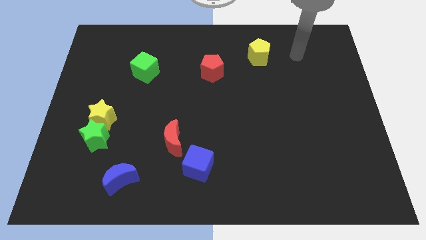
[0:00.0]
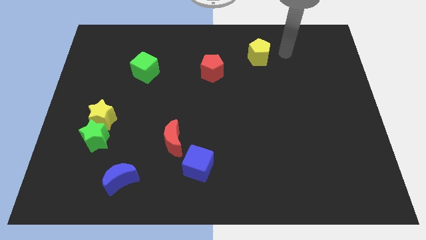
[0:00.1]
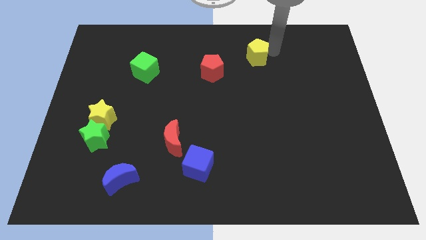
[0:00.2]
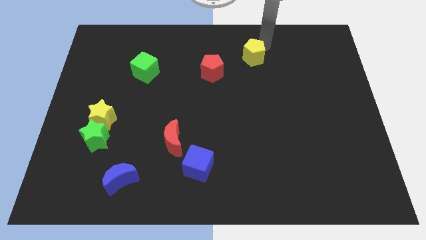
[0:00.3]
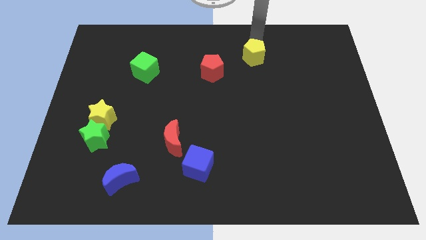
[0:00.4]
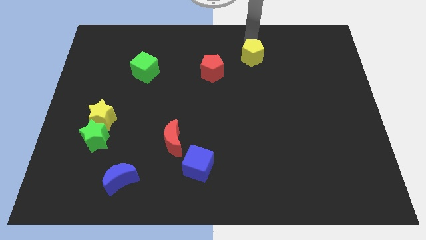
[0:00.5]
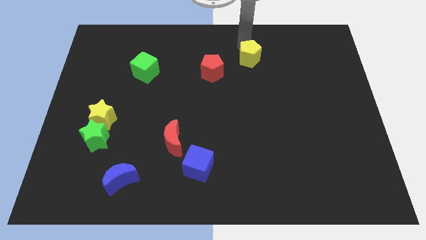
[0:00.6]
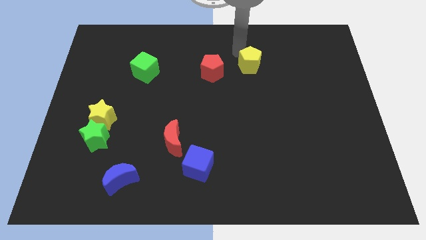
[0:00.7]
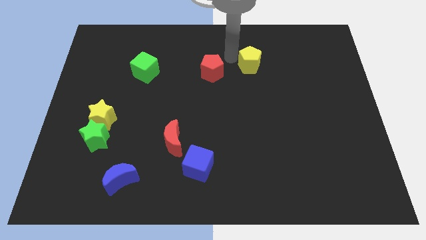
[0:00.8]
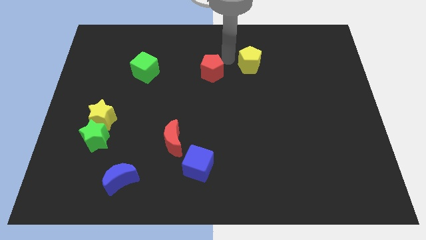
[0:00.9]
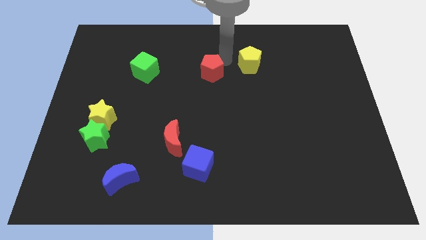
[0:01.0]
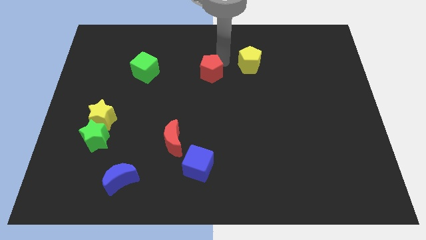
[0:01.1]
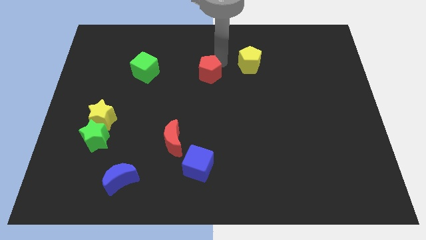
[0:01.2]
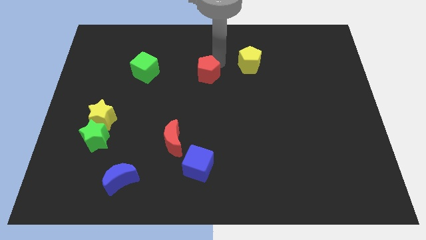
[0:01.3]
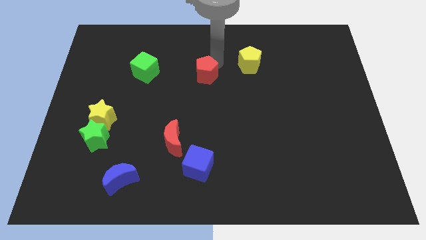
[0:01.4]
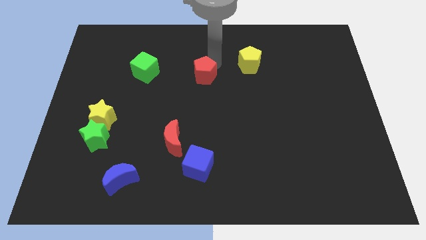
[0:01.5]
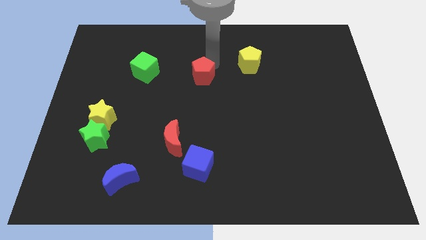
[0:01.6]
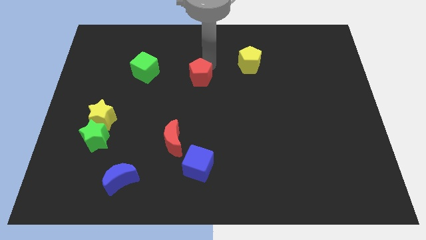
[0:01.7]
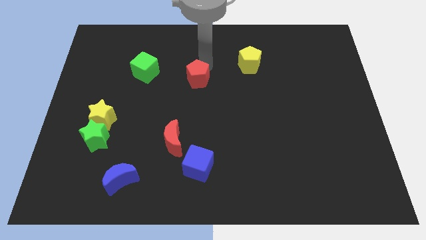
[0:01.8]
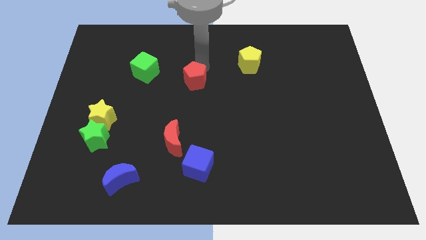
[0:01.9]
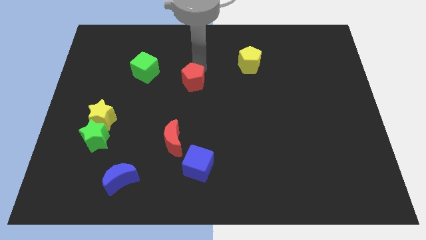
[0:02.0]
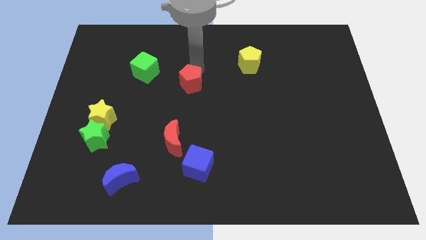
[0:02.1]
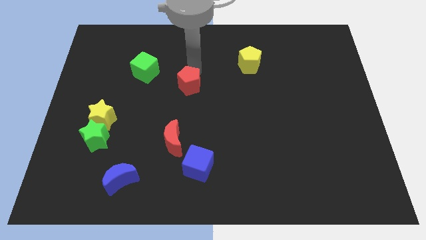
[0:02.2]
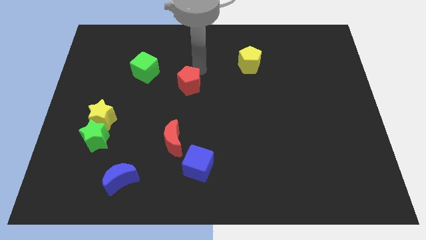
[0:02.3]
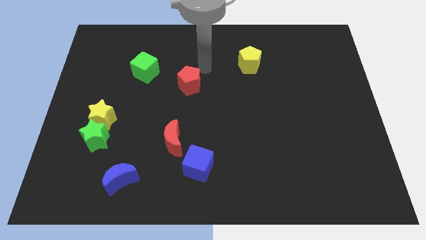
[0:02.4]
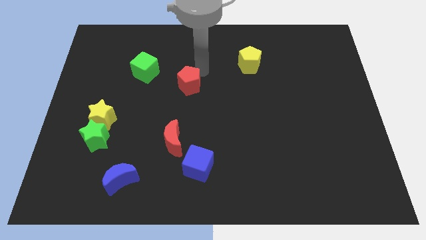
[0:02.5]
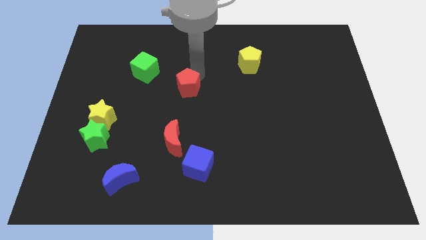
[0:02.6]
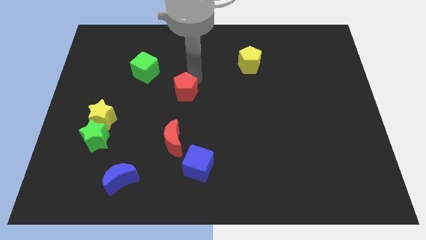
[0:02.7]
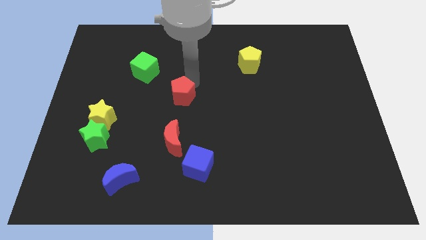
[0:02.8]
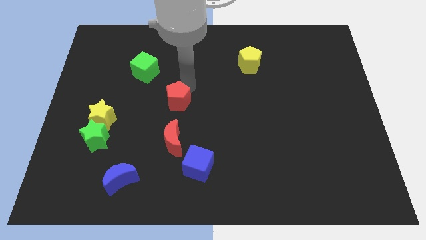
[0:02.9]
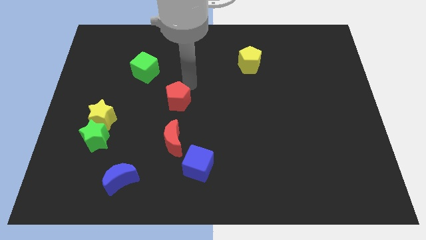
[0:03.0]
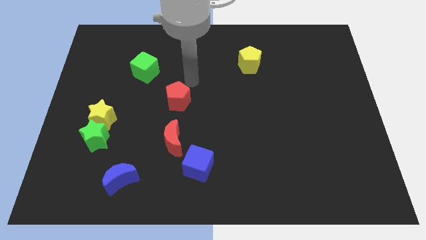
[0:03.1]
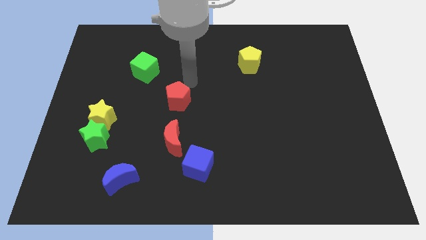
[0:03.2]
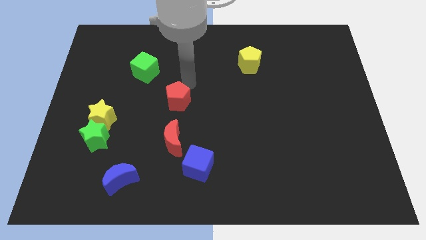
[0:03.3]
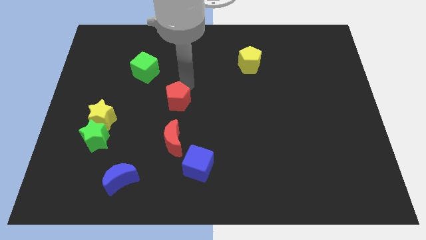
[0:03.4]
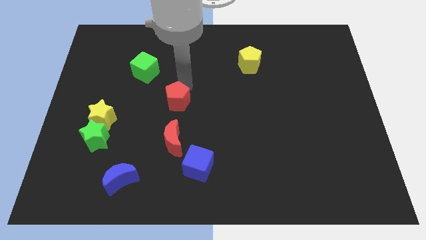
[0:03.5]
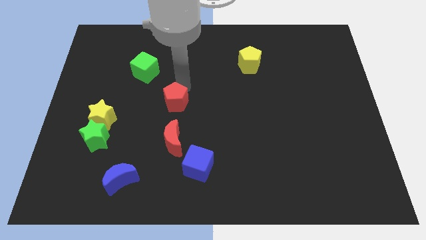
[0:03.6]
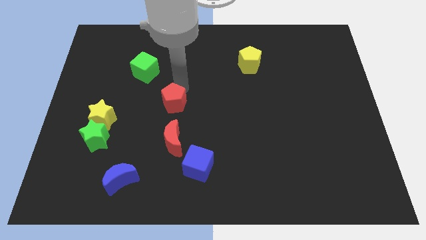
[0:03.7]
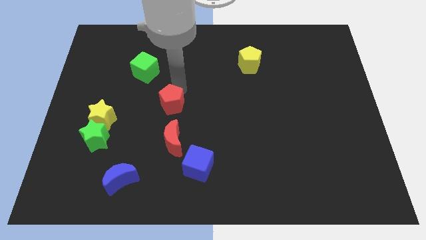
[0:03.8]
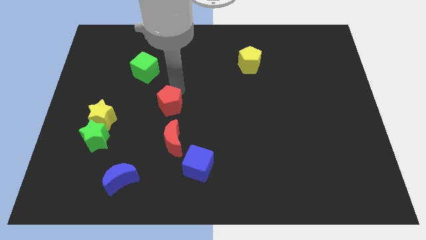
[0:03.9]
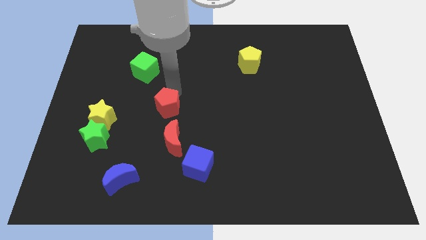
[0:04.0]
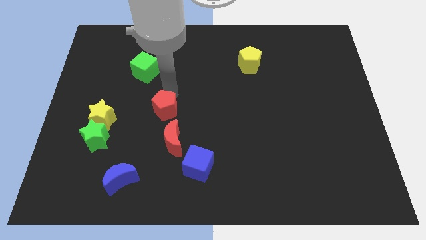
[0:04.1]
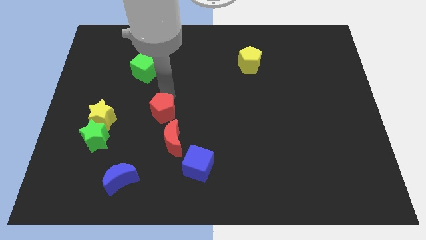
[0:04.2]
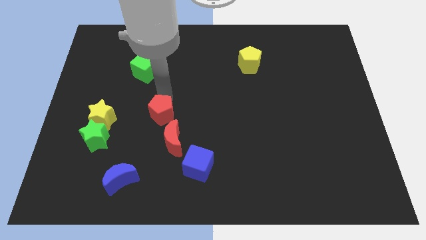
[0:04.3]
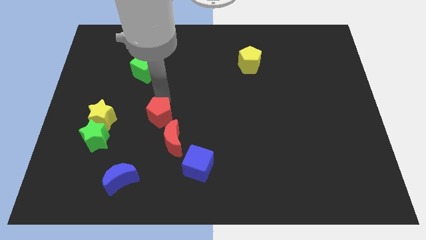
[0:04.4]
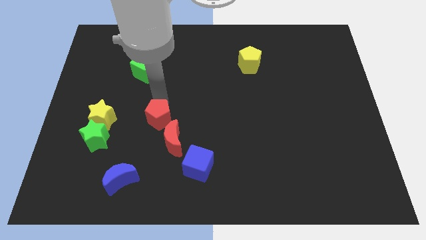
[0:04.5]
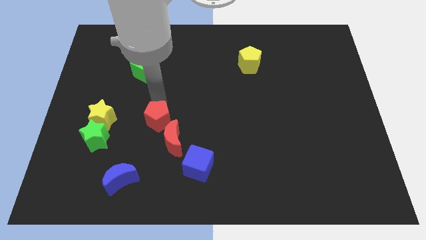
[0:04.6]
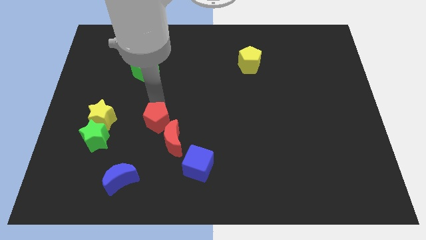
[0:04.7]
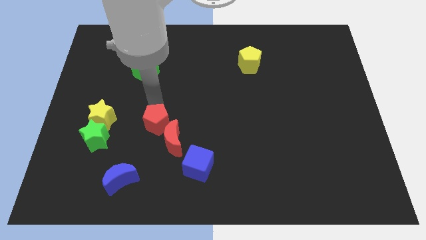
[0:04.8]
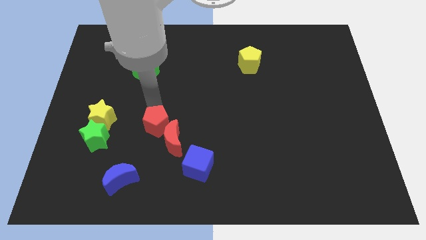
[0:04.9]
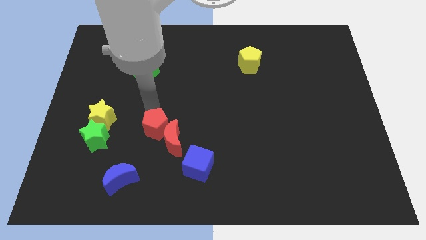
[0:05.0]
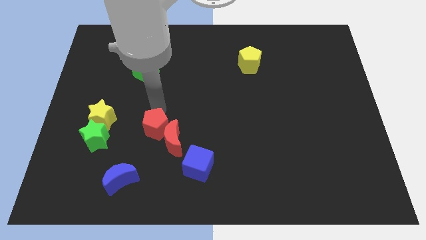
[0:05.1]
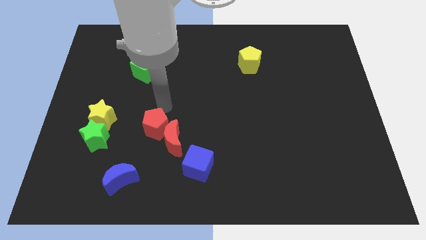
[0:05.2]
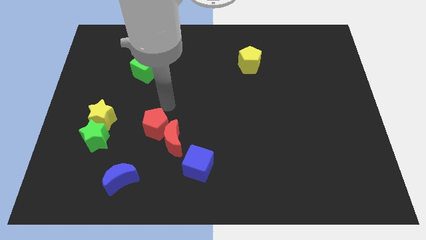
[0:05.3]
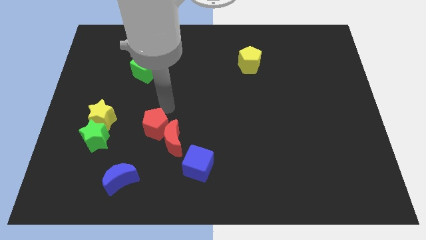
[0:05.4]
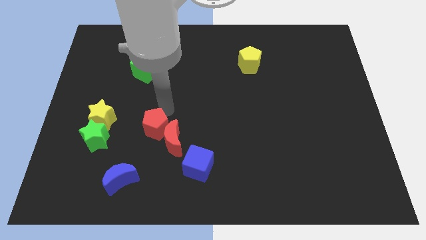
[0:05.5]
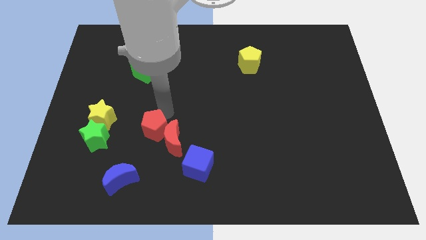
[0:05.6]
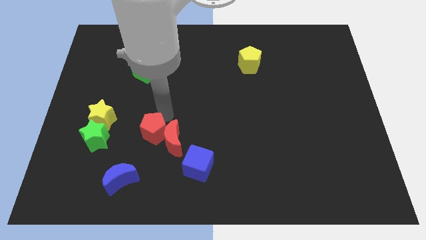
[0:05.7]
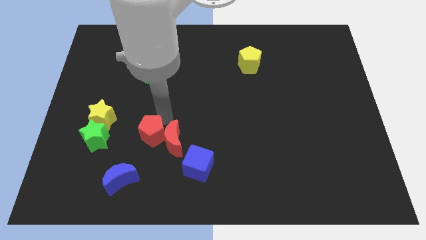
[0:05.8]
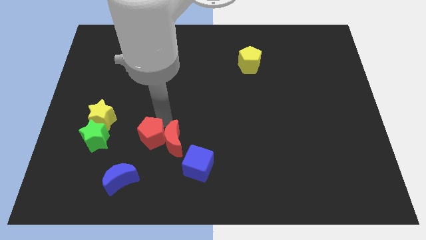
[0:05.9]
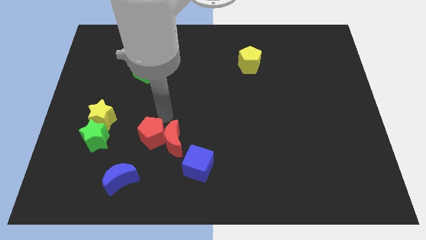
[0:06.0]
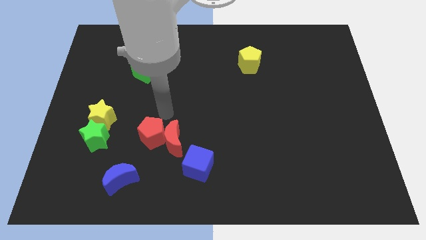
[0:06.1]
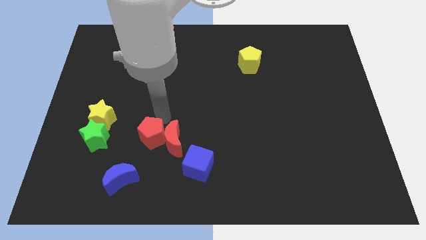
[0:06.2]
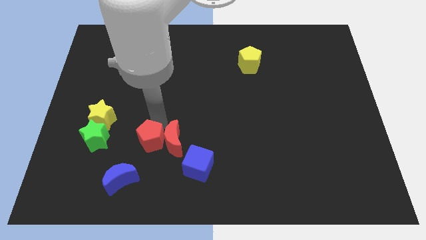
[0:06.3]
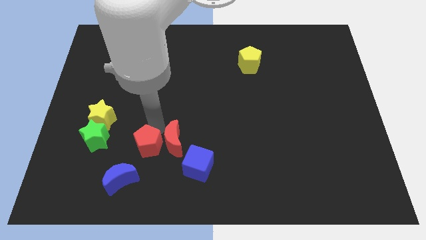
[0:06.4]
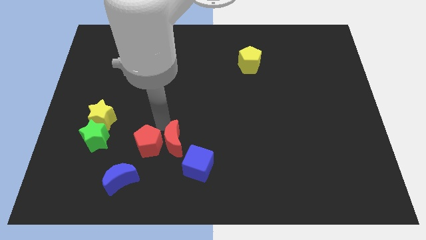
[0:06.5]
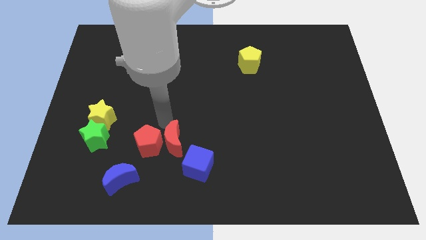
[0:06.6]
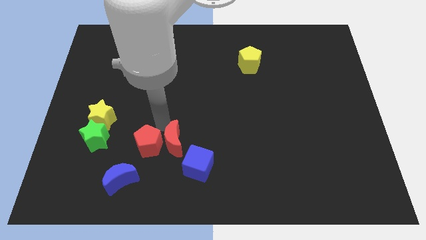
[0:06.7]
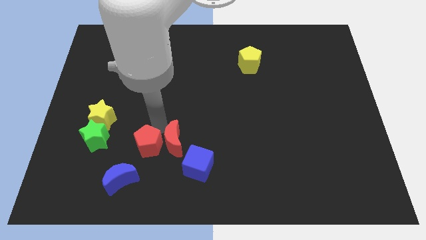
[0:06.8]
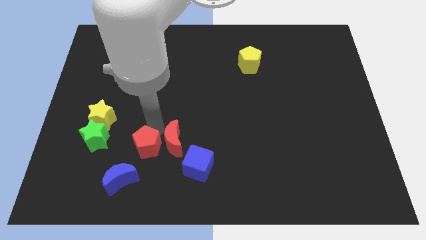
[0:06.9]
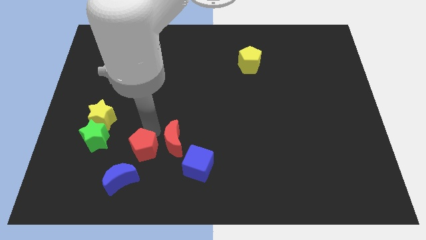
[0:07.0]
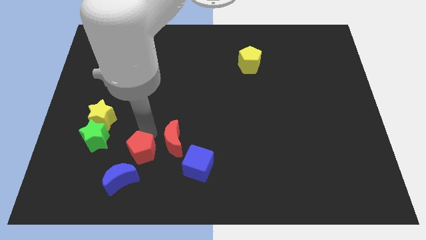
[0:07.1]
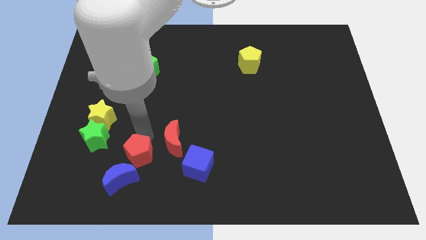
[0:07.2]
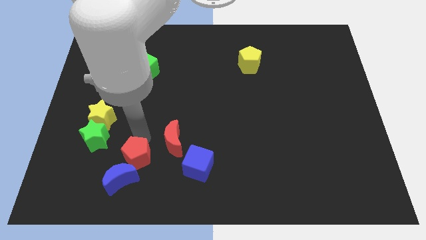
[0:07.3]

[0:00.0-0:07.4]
put the red pentagon to the blue moon
